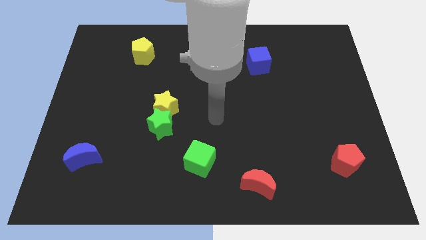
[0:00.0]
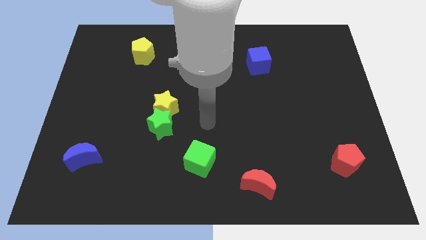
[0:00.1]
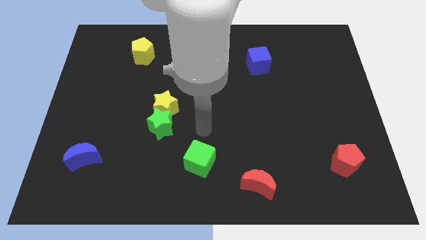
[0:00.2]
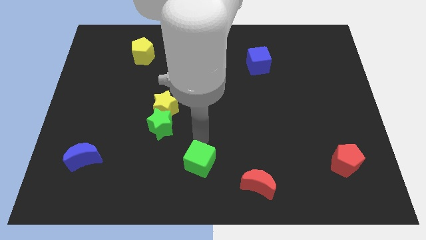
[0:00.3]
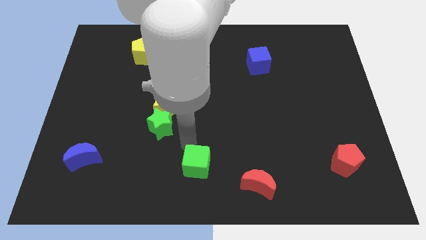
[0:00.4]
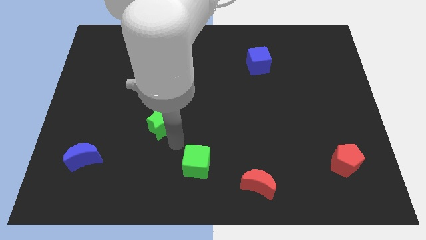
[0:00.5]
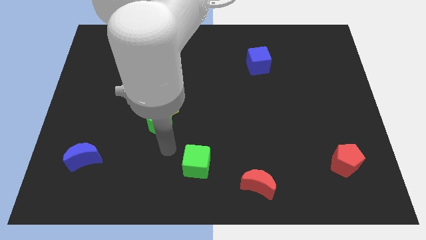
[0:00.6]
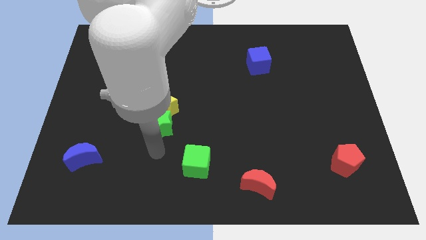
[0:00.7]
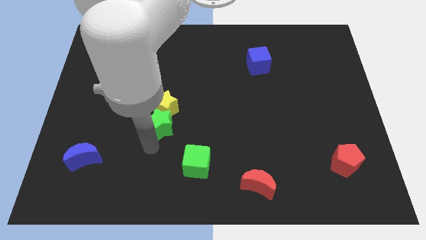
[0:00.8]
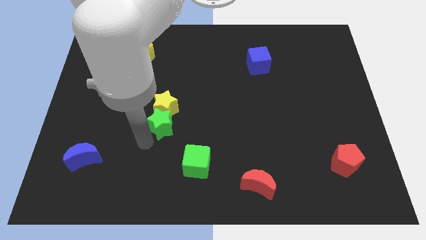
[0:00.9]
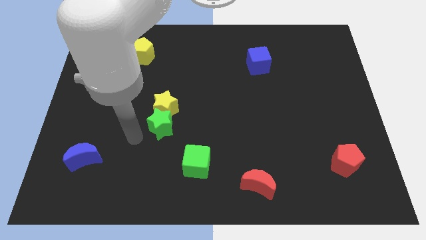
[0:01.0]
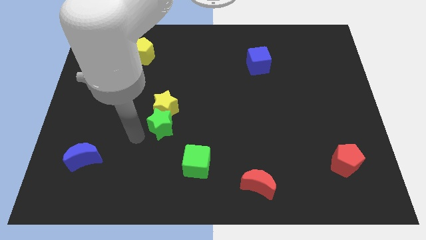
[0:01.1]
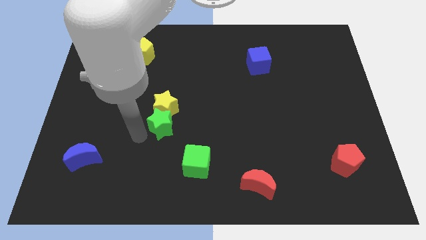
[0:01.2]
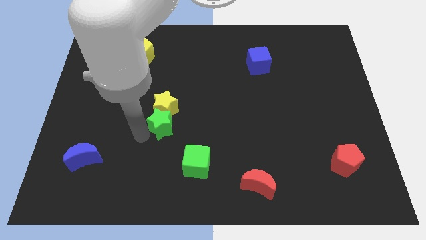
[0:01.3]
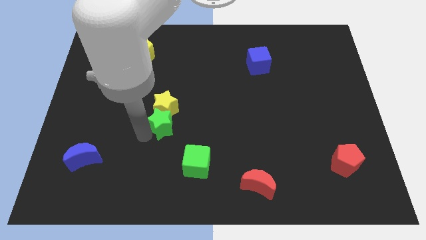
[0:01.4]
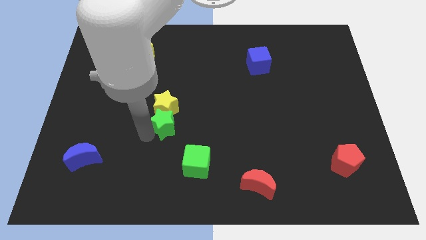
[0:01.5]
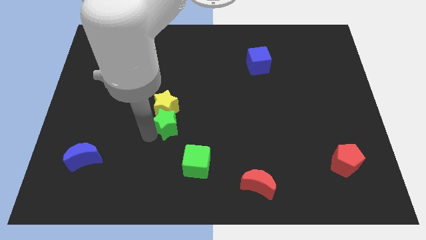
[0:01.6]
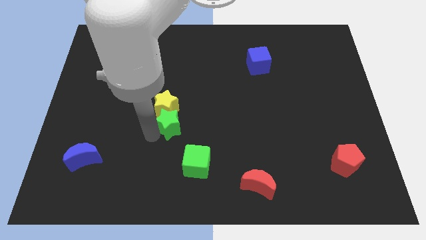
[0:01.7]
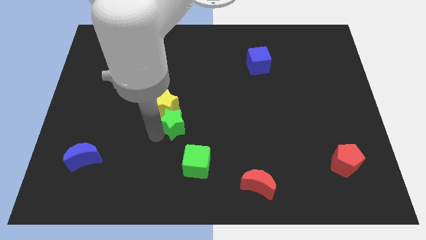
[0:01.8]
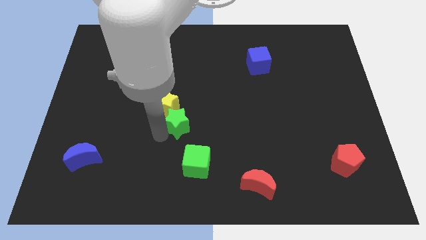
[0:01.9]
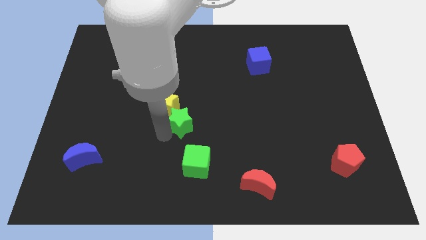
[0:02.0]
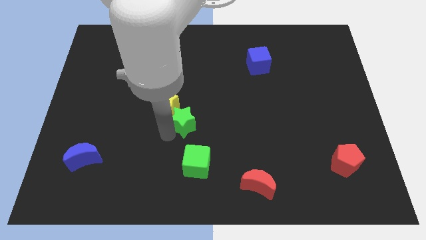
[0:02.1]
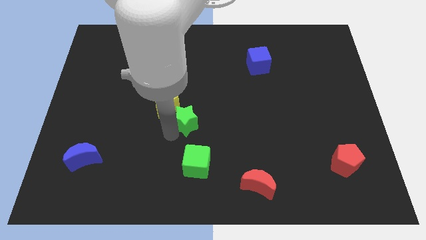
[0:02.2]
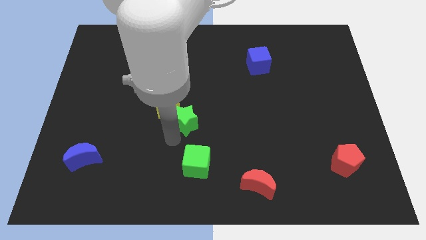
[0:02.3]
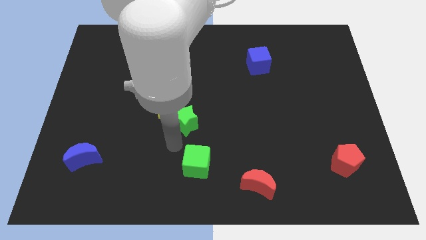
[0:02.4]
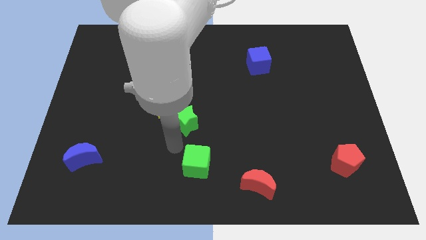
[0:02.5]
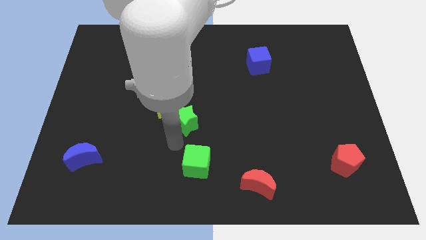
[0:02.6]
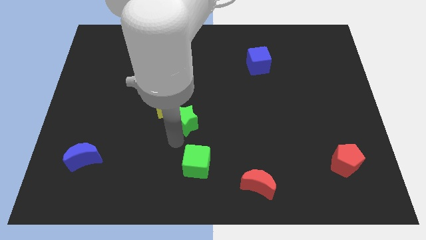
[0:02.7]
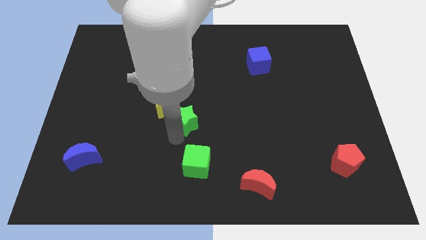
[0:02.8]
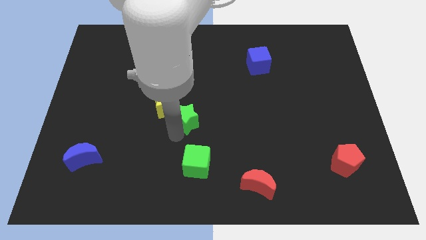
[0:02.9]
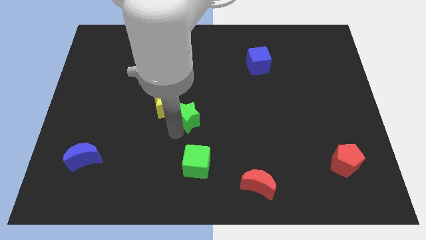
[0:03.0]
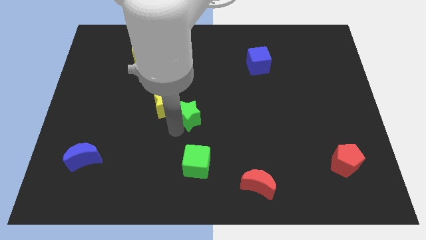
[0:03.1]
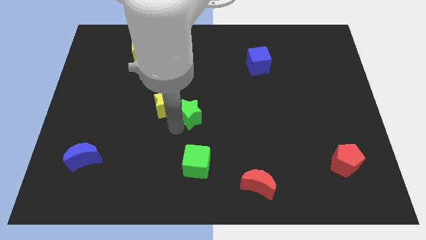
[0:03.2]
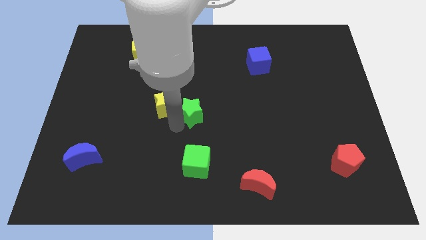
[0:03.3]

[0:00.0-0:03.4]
slightly push the green star diagonally upwards and right

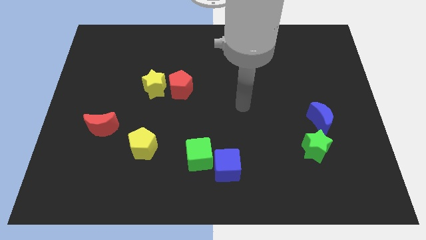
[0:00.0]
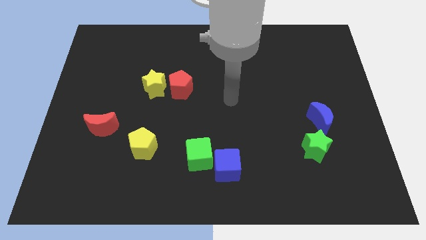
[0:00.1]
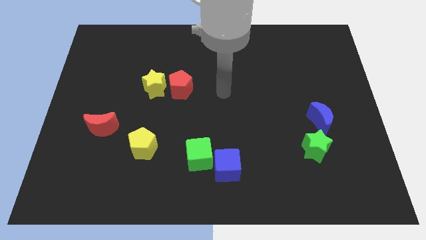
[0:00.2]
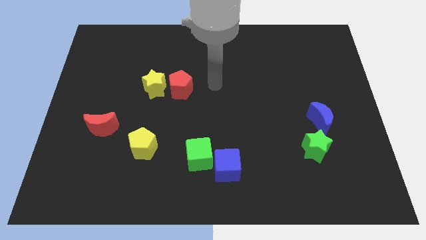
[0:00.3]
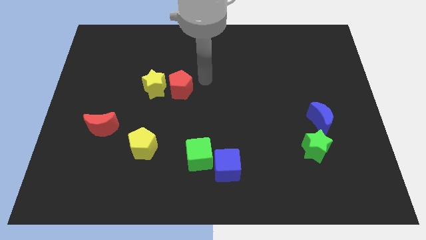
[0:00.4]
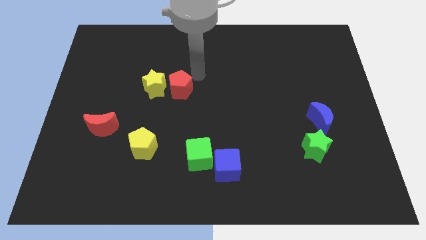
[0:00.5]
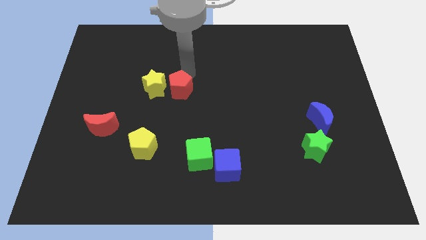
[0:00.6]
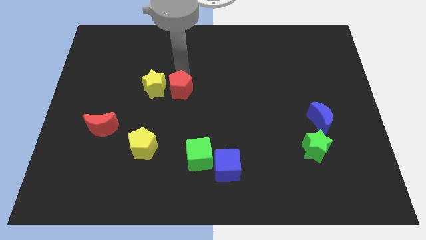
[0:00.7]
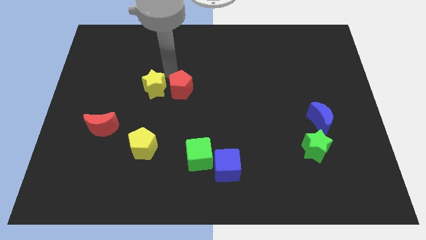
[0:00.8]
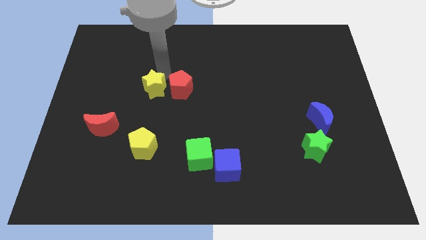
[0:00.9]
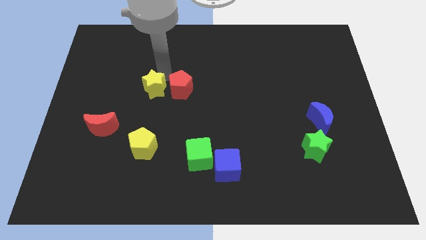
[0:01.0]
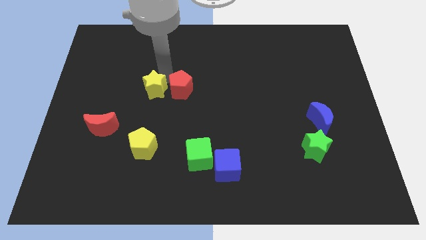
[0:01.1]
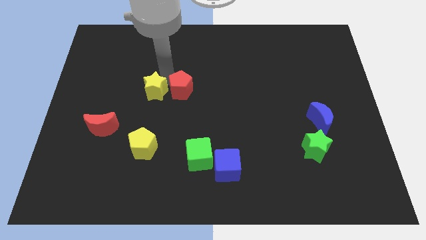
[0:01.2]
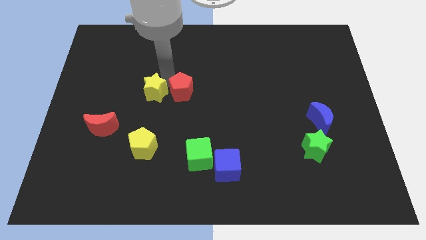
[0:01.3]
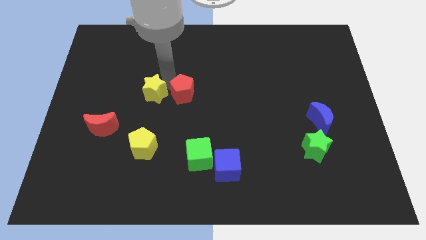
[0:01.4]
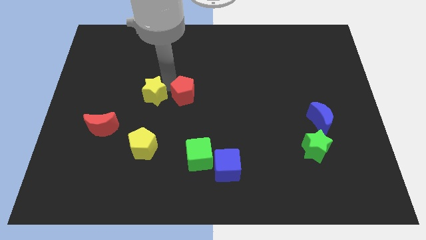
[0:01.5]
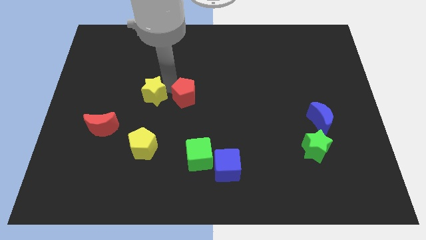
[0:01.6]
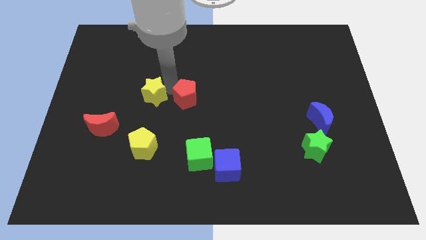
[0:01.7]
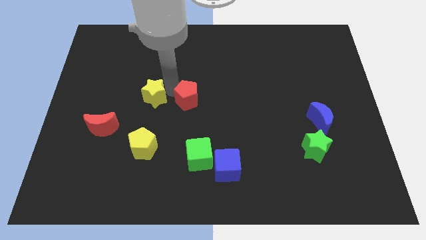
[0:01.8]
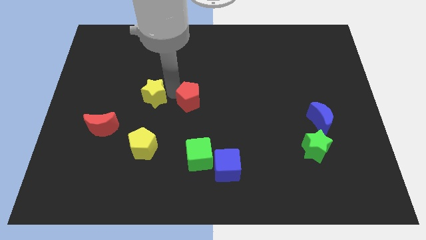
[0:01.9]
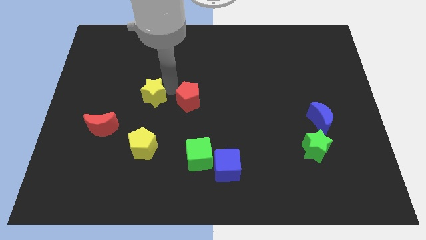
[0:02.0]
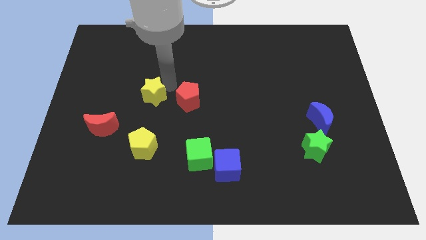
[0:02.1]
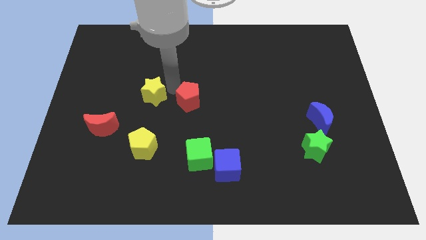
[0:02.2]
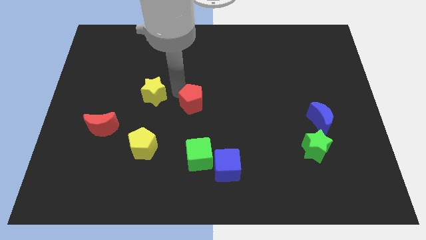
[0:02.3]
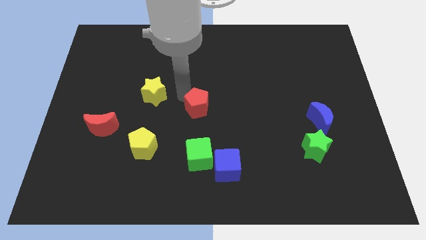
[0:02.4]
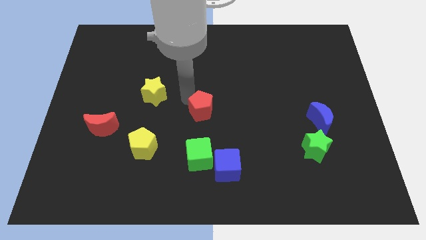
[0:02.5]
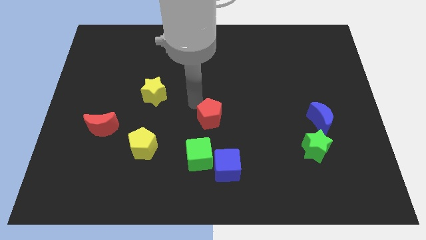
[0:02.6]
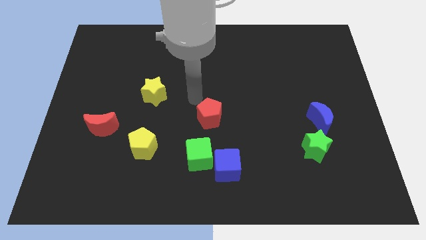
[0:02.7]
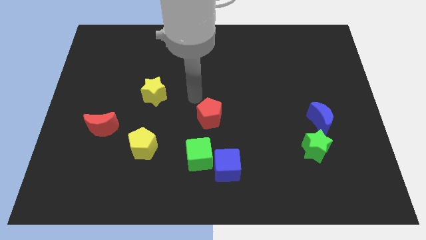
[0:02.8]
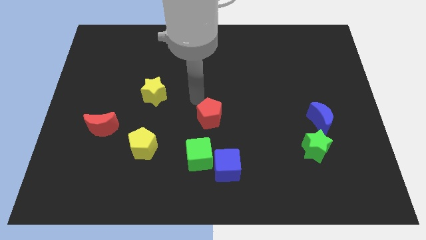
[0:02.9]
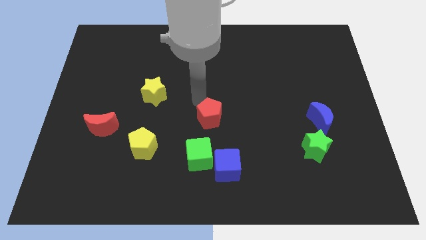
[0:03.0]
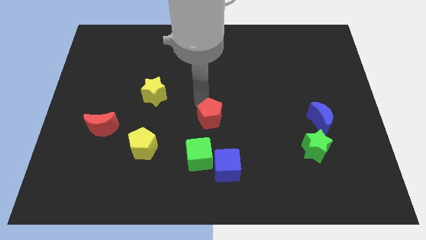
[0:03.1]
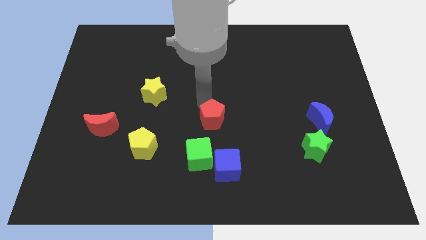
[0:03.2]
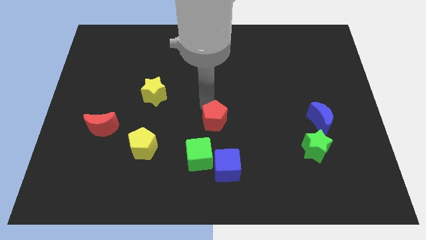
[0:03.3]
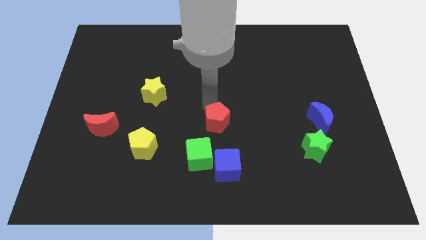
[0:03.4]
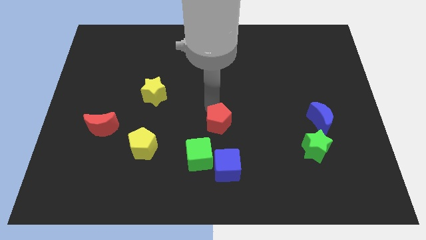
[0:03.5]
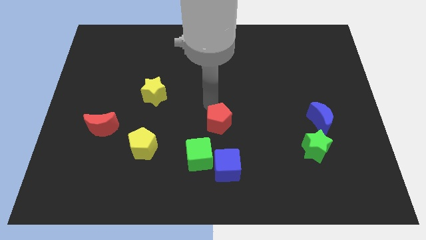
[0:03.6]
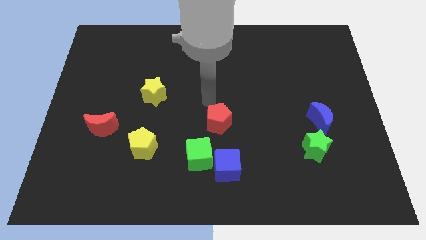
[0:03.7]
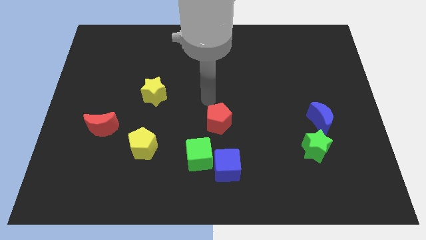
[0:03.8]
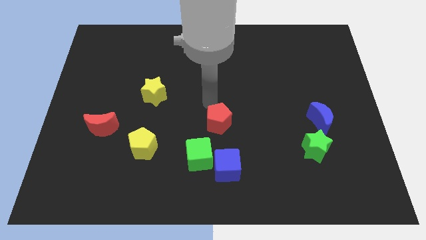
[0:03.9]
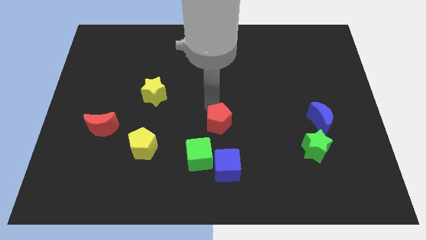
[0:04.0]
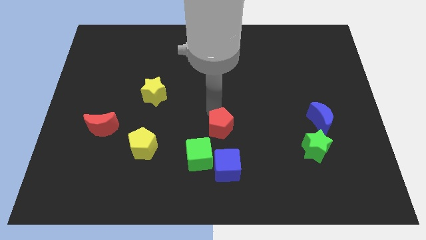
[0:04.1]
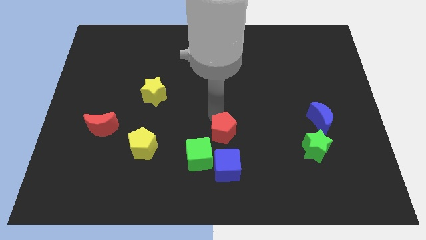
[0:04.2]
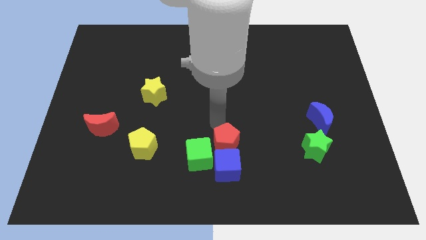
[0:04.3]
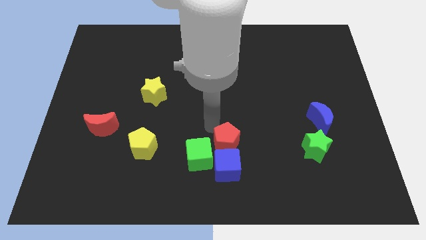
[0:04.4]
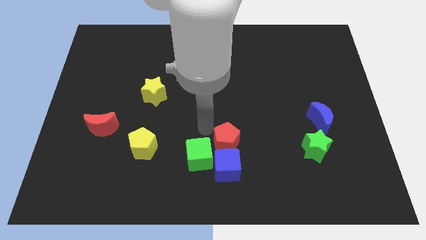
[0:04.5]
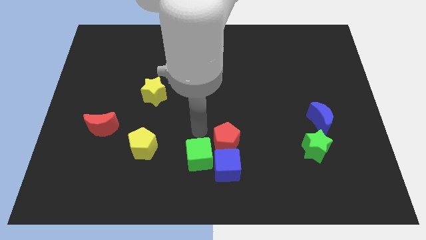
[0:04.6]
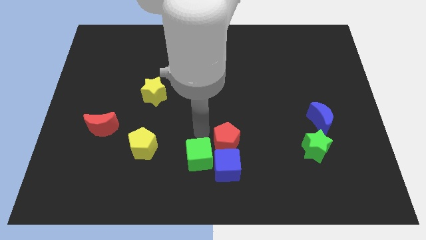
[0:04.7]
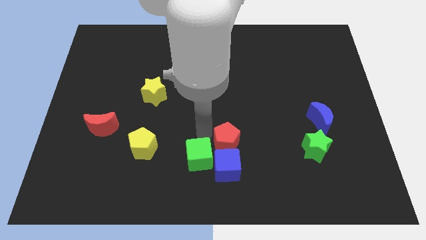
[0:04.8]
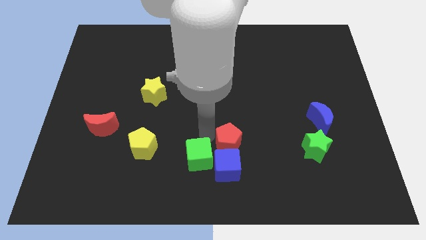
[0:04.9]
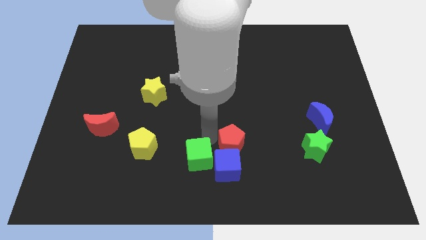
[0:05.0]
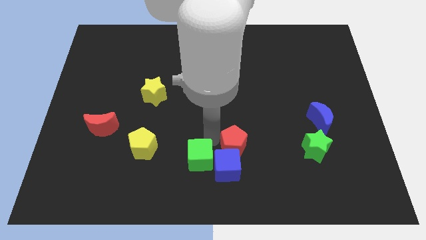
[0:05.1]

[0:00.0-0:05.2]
push the red pentagon downwards and right

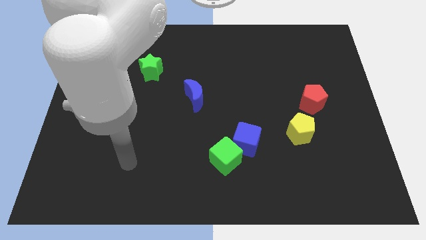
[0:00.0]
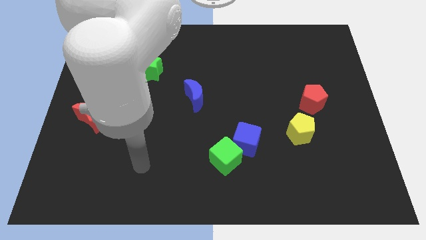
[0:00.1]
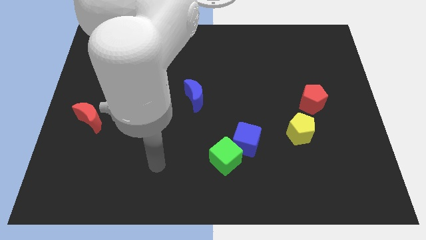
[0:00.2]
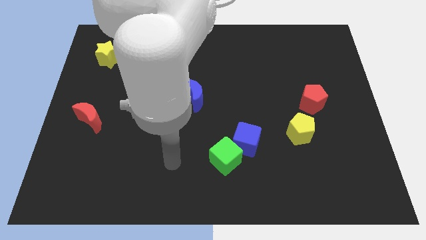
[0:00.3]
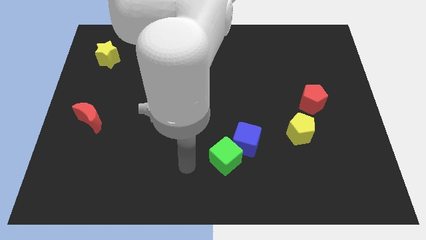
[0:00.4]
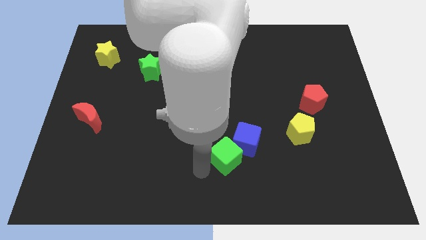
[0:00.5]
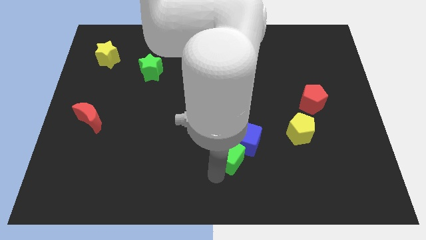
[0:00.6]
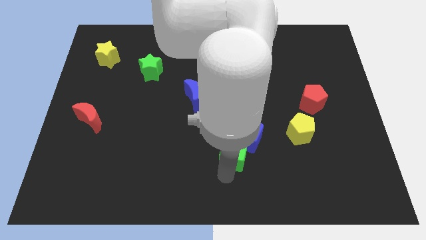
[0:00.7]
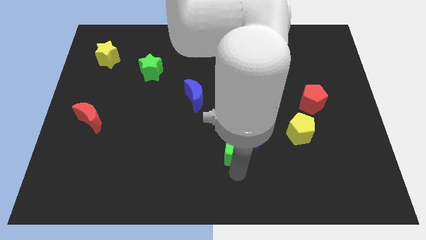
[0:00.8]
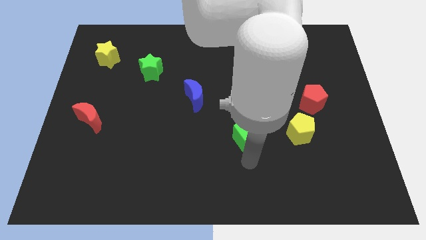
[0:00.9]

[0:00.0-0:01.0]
move the blue cube upwards slightly
